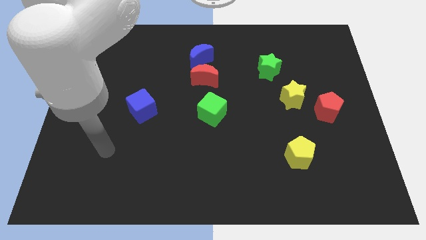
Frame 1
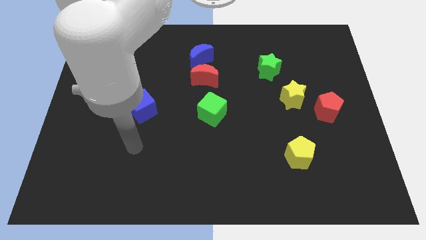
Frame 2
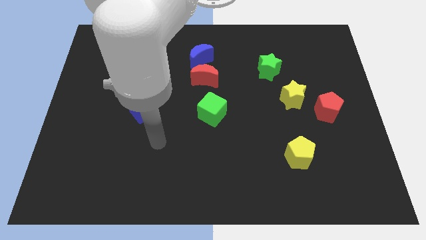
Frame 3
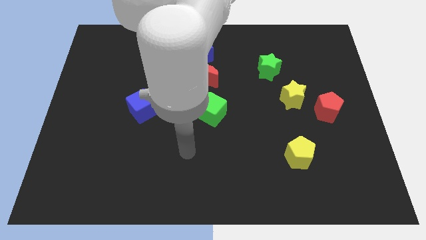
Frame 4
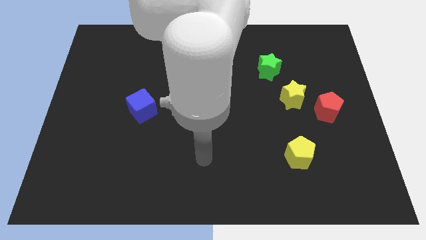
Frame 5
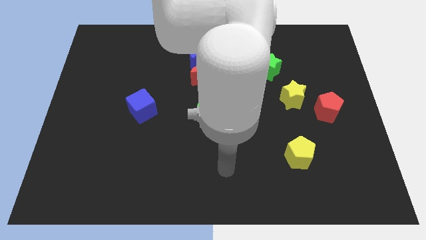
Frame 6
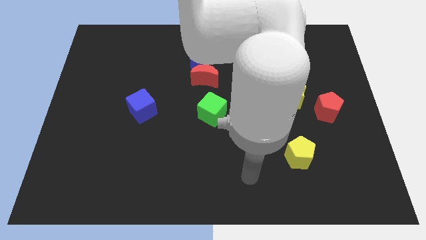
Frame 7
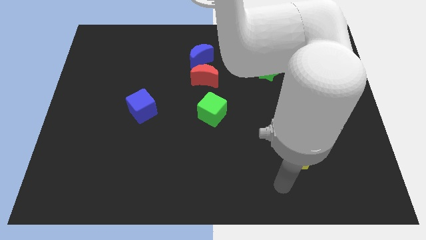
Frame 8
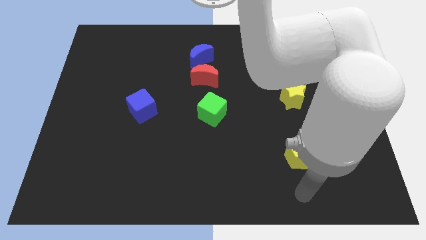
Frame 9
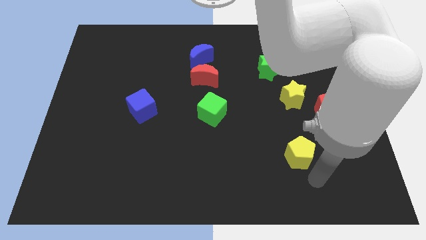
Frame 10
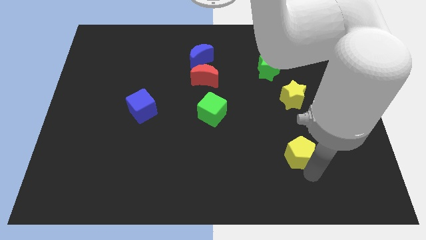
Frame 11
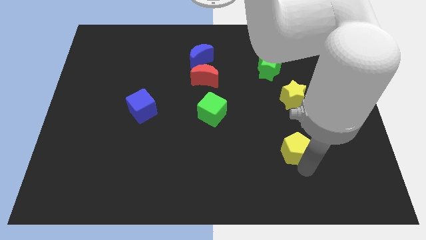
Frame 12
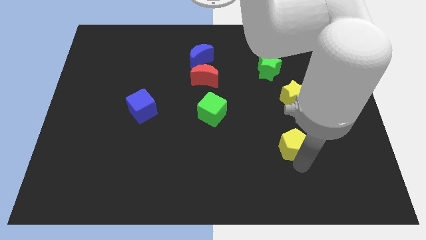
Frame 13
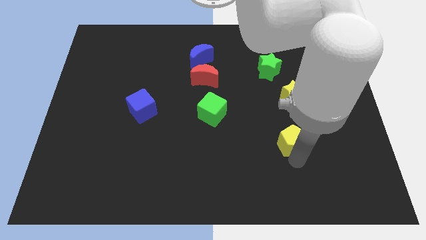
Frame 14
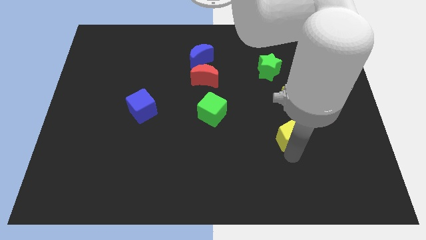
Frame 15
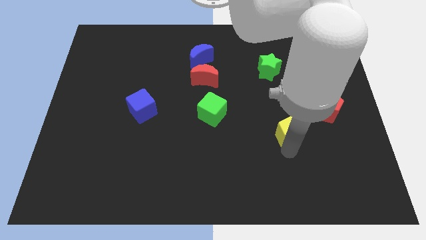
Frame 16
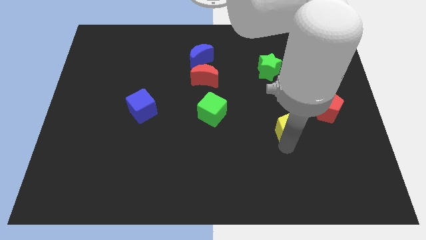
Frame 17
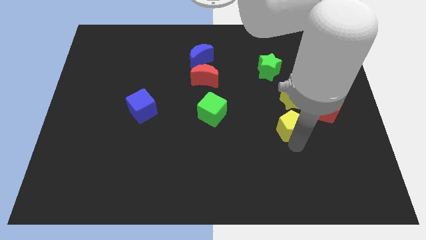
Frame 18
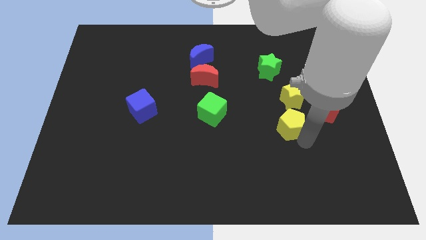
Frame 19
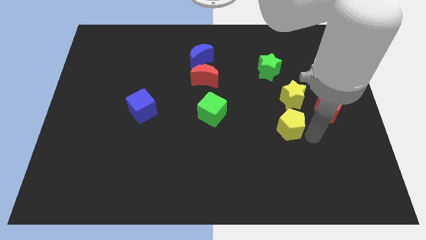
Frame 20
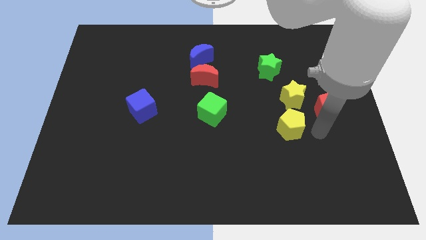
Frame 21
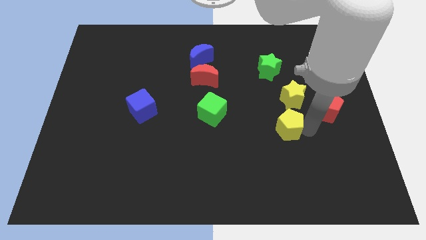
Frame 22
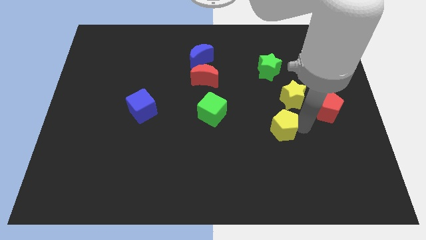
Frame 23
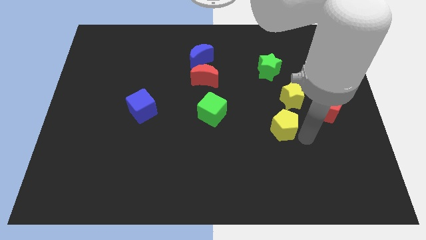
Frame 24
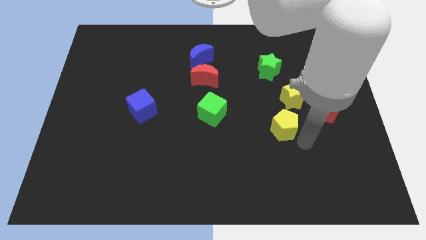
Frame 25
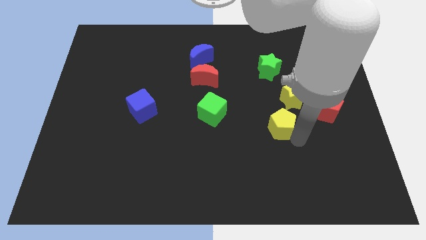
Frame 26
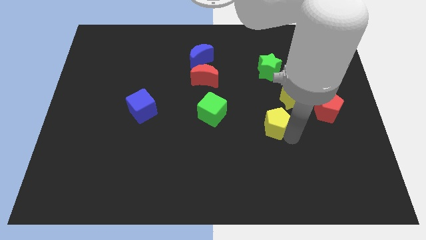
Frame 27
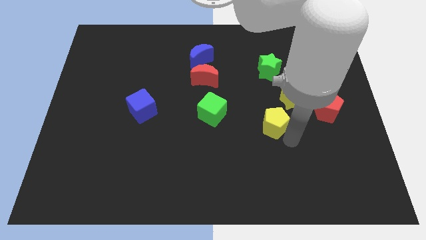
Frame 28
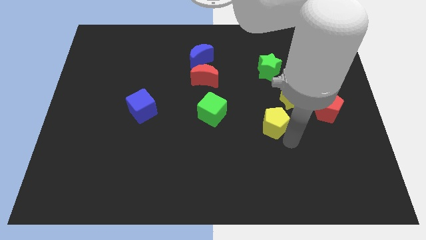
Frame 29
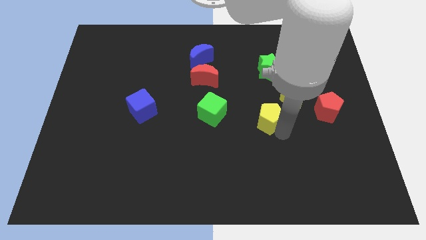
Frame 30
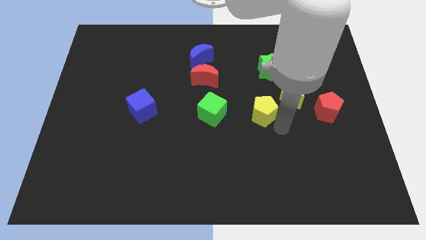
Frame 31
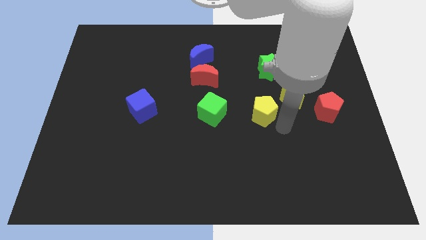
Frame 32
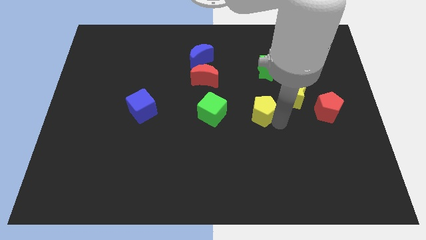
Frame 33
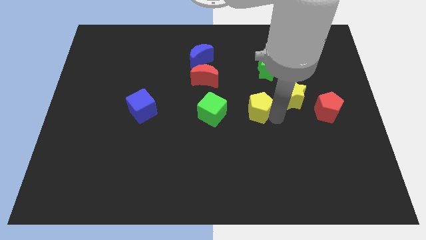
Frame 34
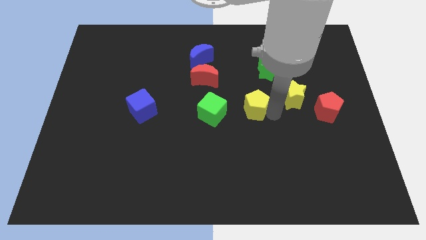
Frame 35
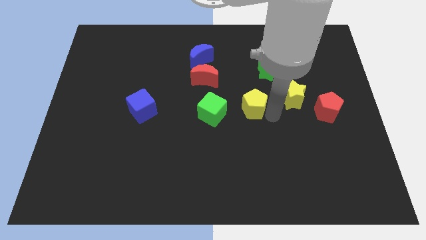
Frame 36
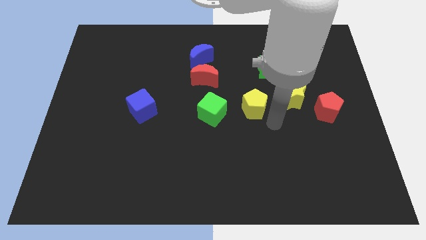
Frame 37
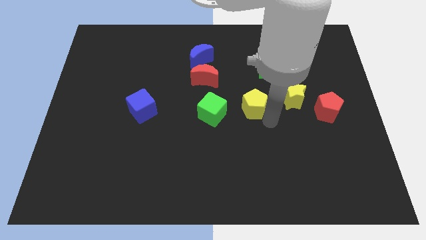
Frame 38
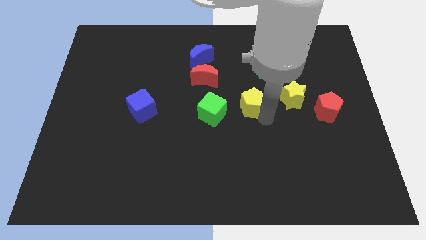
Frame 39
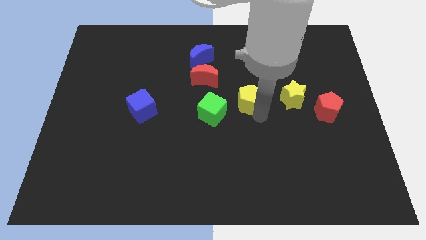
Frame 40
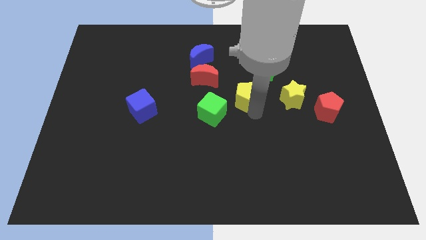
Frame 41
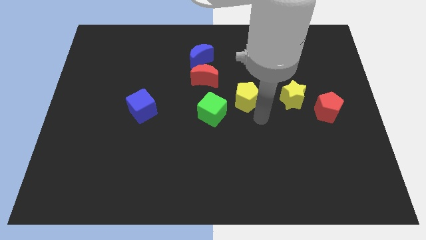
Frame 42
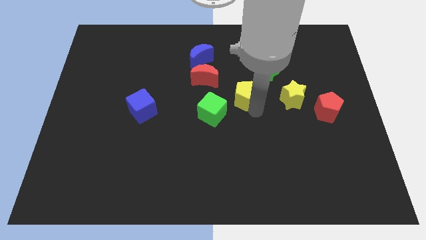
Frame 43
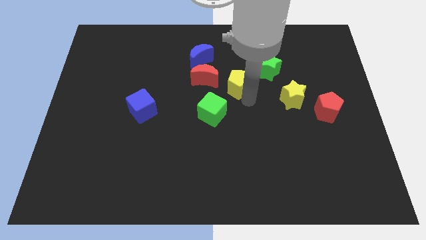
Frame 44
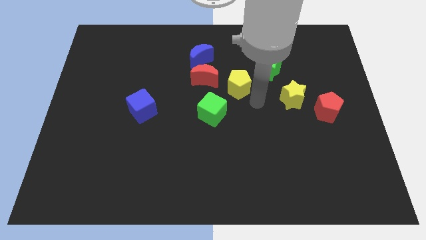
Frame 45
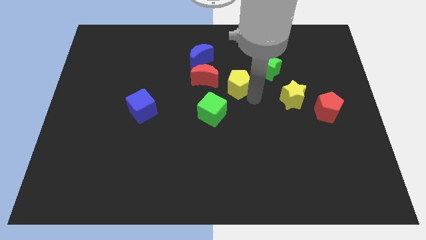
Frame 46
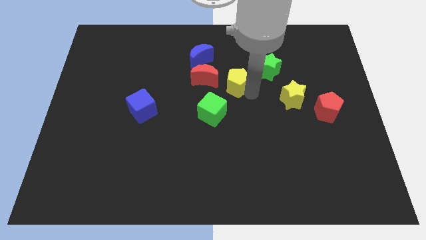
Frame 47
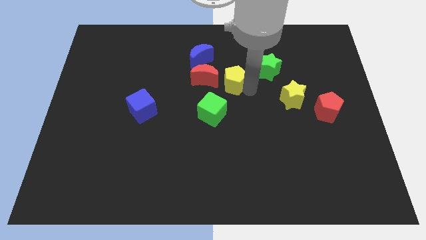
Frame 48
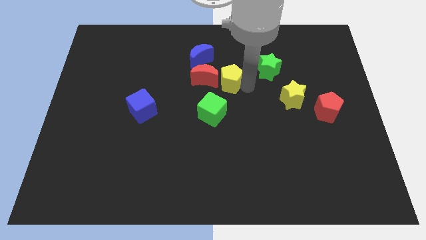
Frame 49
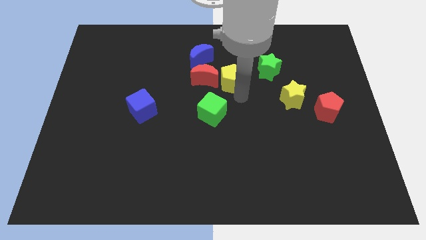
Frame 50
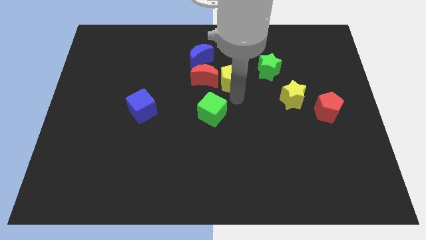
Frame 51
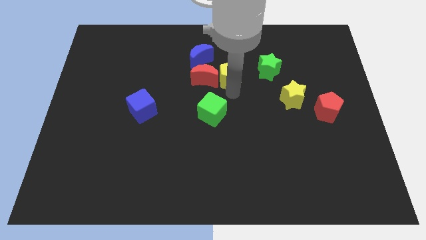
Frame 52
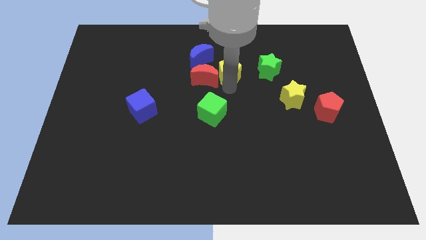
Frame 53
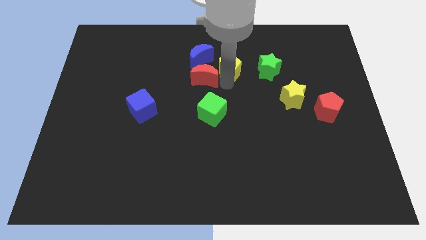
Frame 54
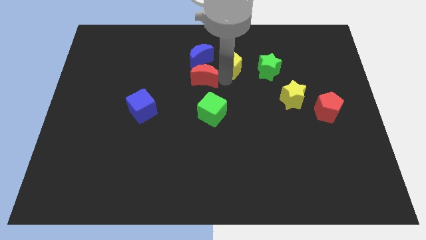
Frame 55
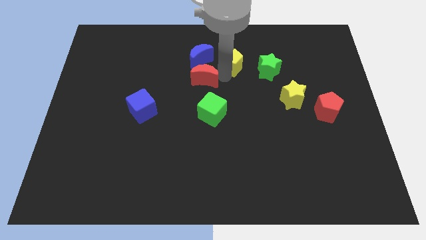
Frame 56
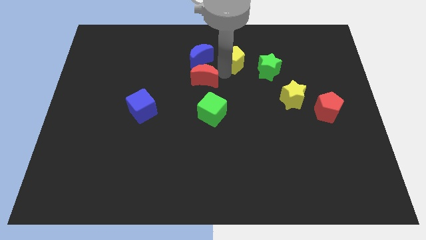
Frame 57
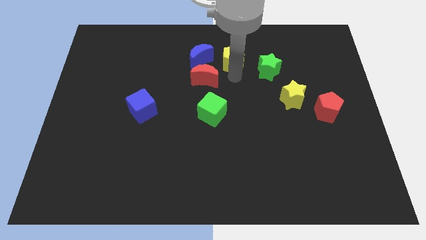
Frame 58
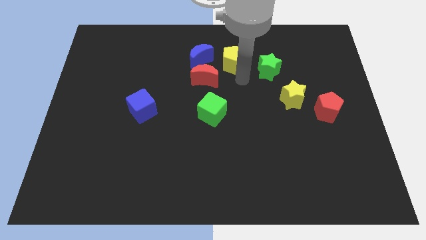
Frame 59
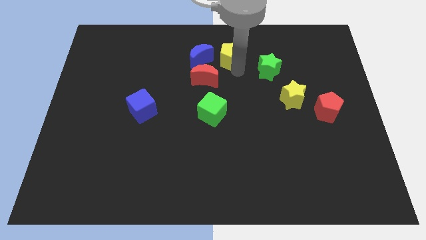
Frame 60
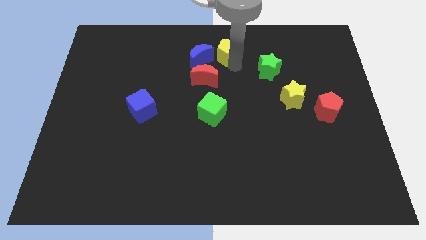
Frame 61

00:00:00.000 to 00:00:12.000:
push the yellow pentagon to the towards your base
